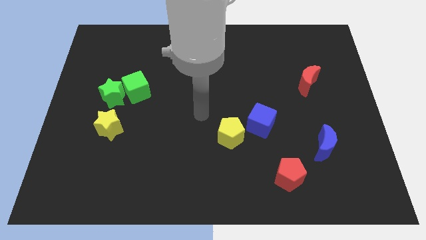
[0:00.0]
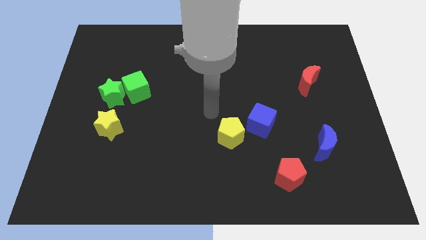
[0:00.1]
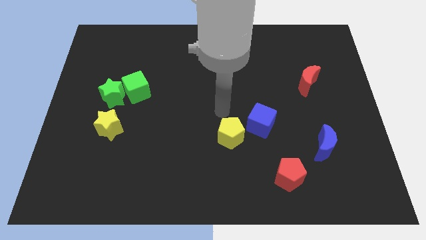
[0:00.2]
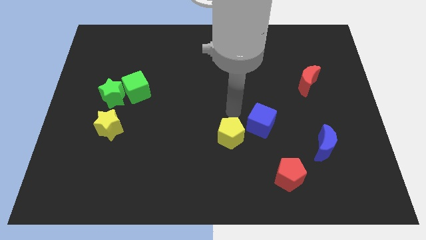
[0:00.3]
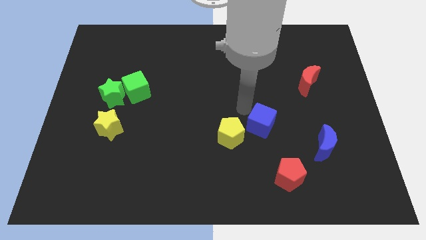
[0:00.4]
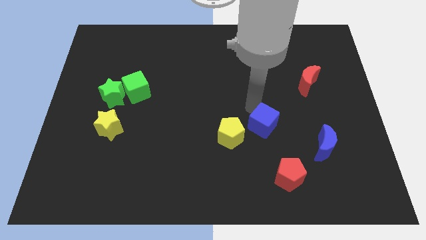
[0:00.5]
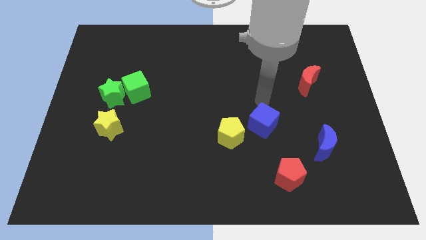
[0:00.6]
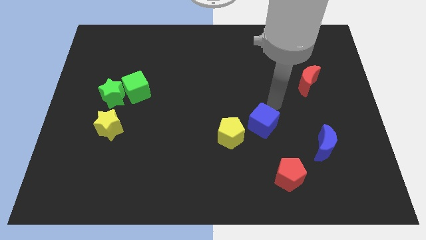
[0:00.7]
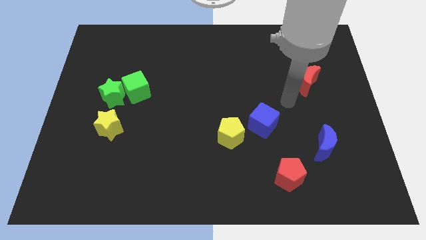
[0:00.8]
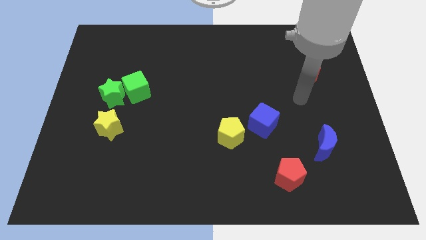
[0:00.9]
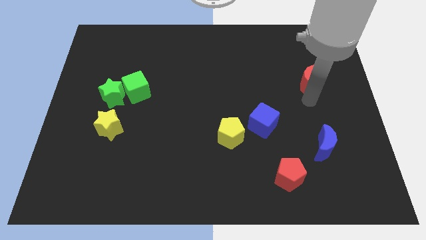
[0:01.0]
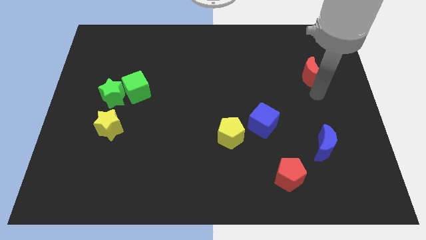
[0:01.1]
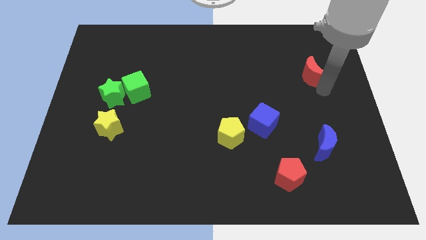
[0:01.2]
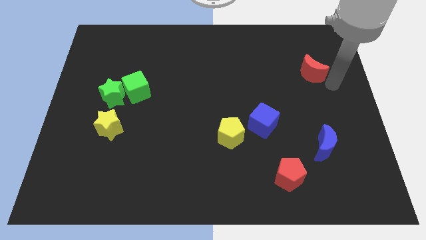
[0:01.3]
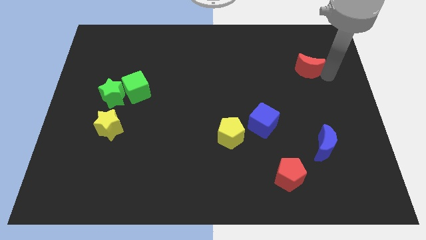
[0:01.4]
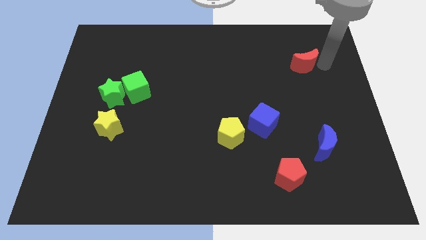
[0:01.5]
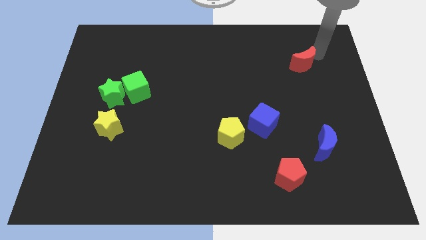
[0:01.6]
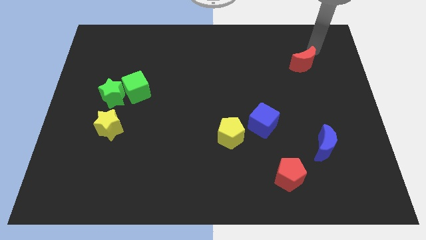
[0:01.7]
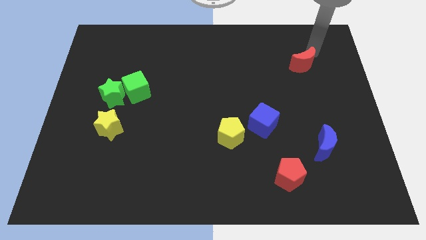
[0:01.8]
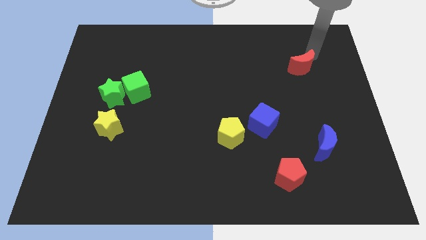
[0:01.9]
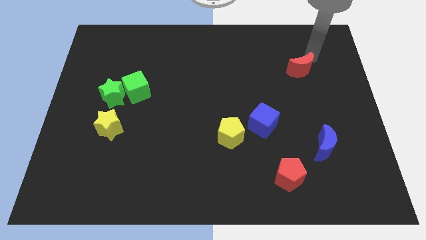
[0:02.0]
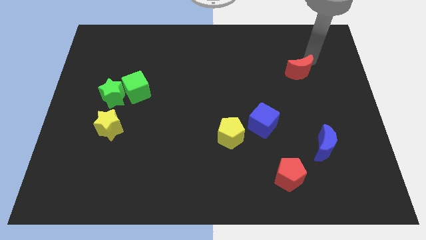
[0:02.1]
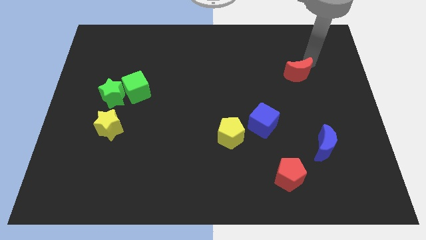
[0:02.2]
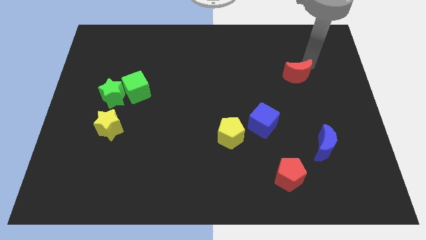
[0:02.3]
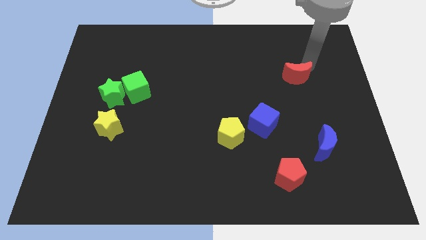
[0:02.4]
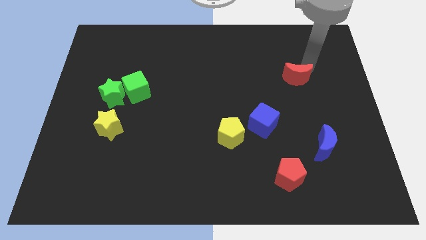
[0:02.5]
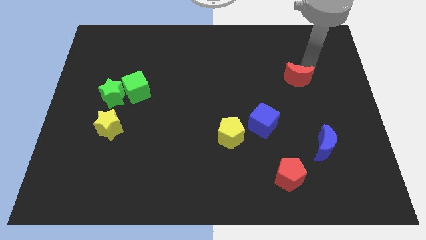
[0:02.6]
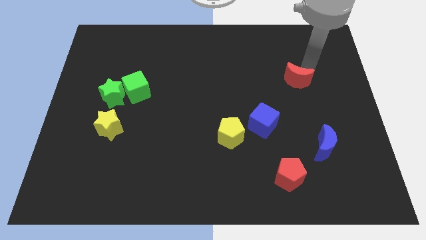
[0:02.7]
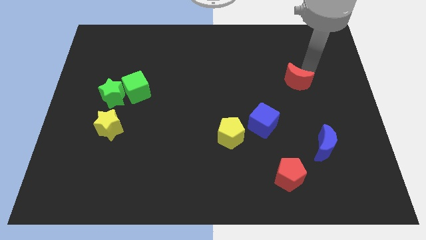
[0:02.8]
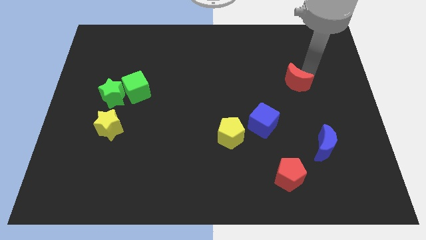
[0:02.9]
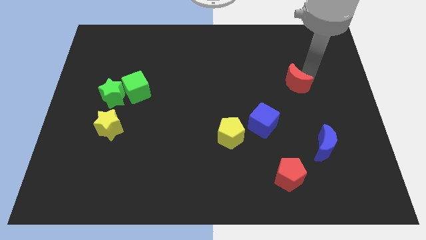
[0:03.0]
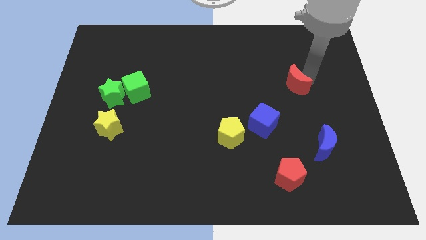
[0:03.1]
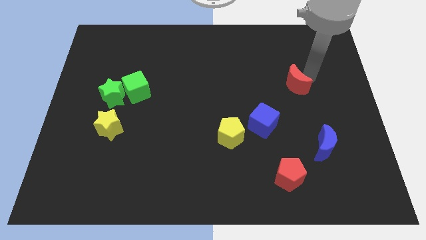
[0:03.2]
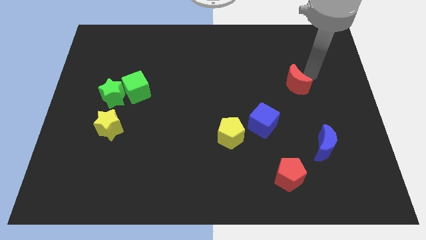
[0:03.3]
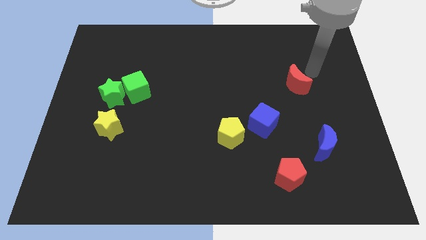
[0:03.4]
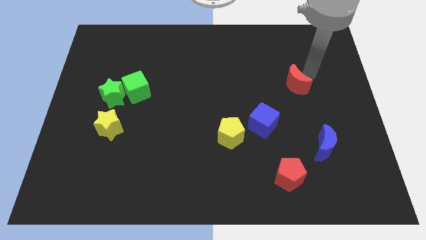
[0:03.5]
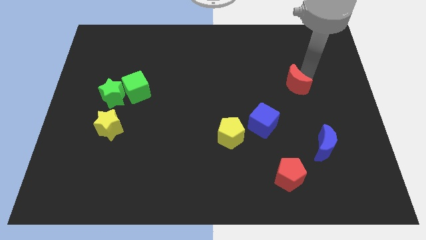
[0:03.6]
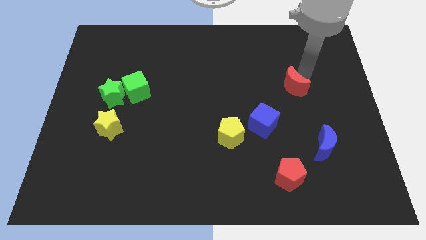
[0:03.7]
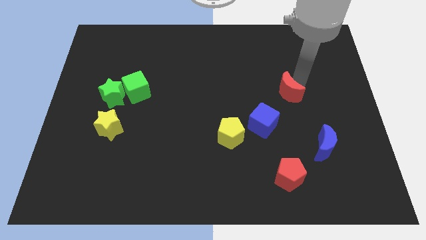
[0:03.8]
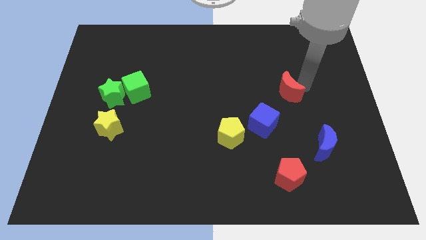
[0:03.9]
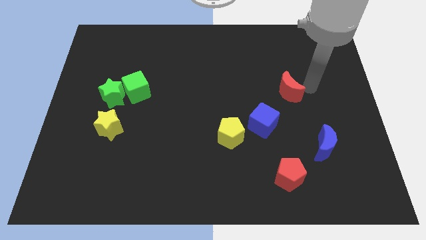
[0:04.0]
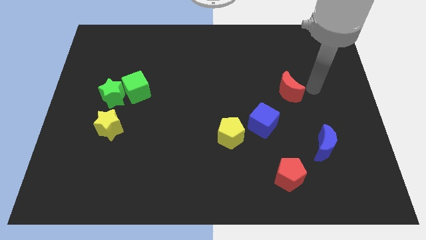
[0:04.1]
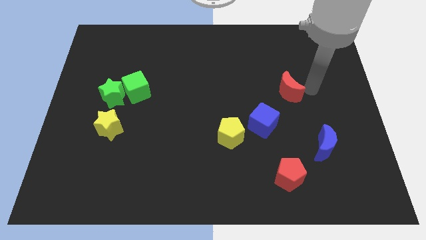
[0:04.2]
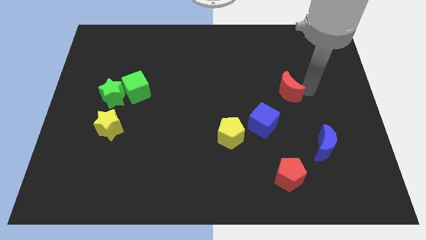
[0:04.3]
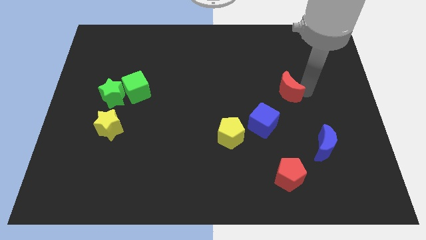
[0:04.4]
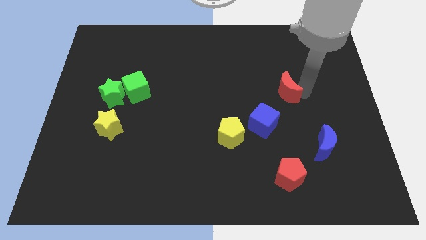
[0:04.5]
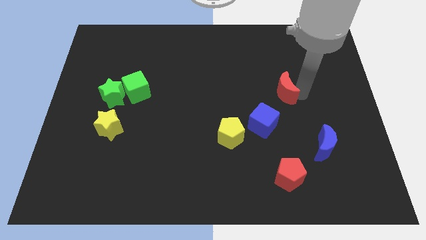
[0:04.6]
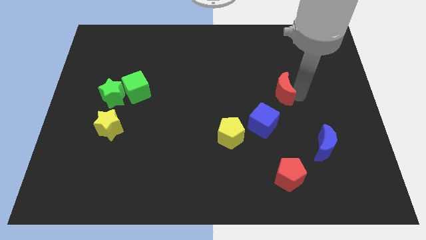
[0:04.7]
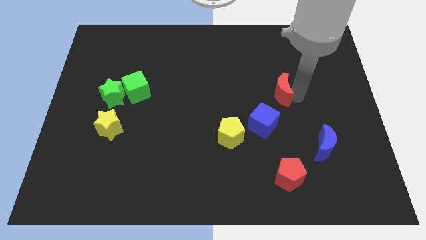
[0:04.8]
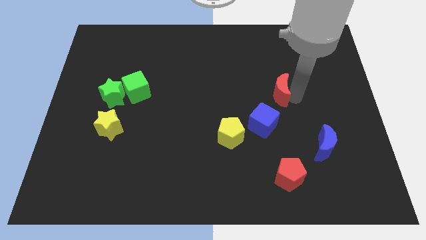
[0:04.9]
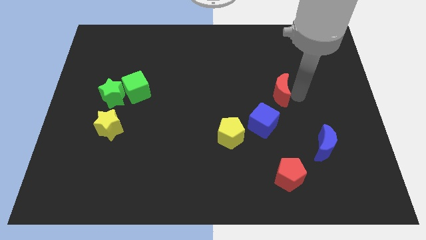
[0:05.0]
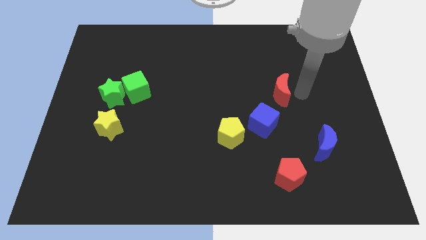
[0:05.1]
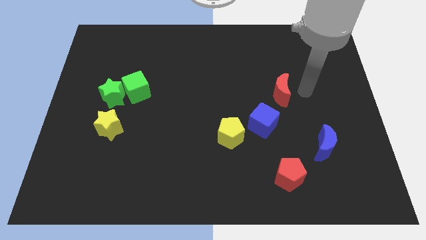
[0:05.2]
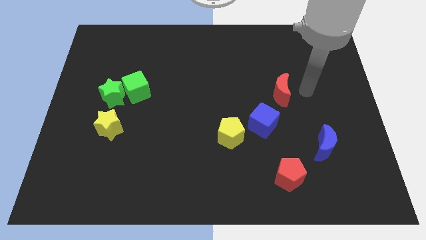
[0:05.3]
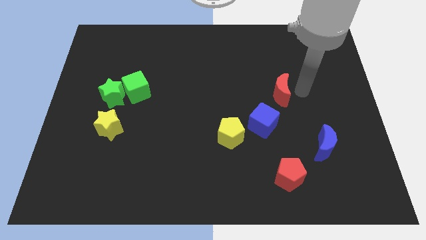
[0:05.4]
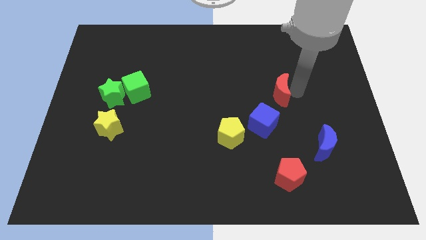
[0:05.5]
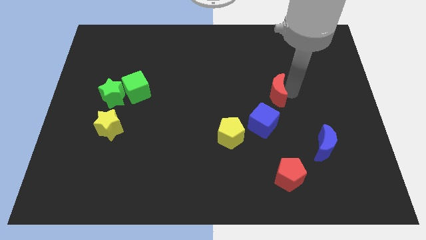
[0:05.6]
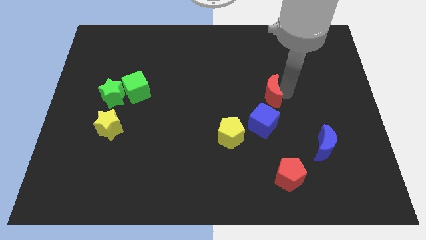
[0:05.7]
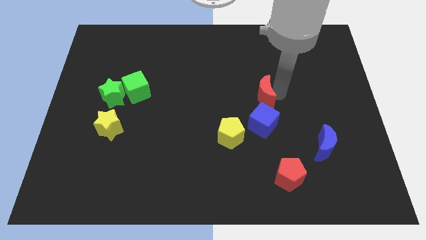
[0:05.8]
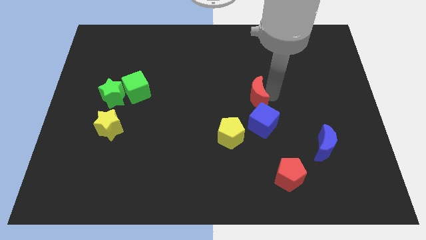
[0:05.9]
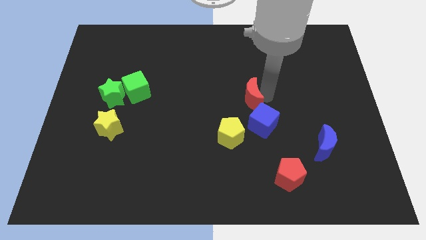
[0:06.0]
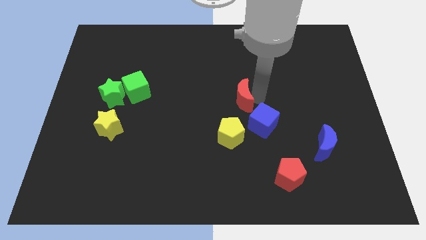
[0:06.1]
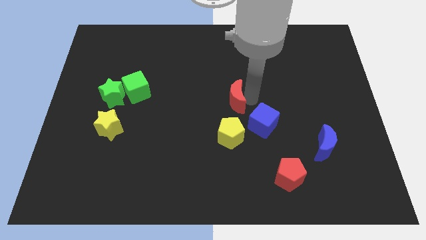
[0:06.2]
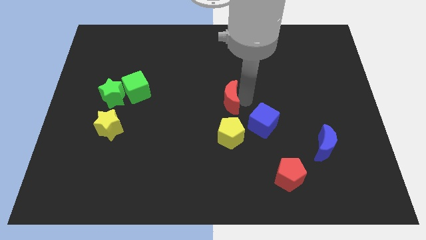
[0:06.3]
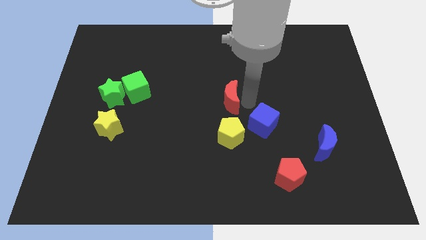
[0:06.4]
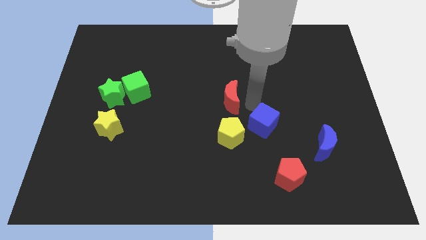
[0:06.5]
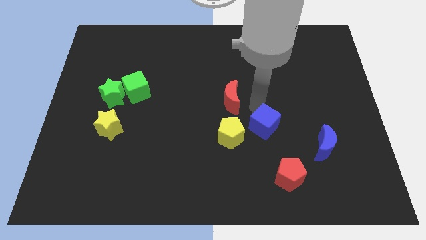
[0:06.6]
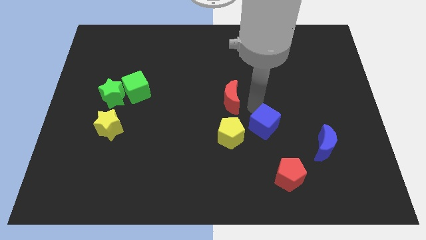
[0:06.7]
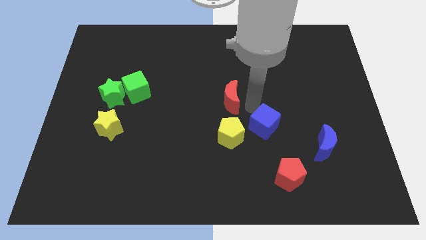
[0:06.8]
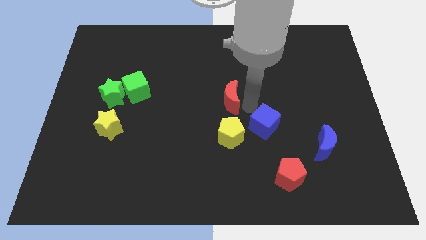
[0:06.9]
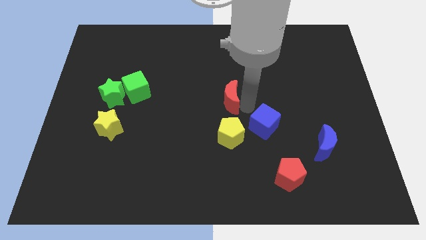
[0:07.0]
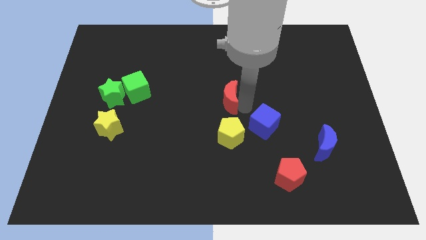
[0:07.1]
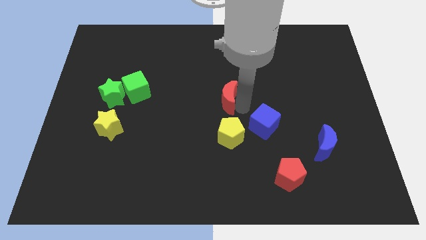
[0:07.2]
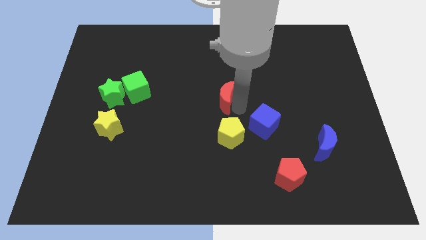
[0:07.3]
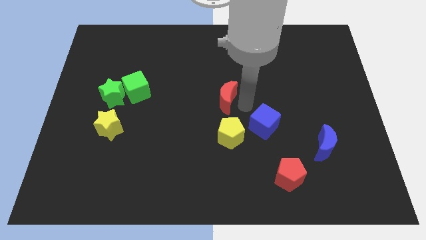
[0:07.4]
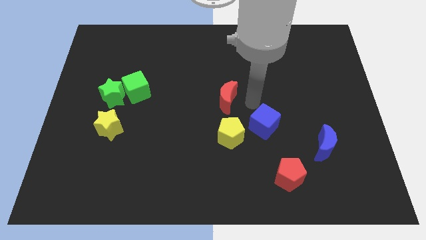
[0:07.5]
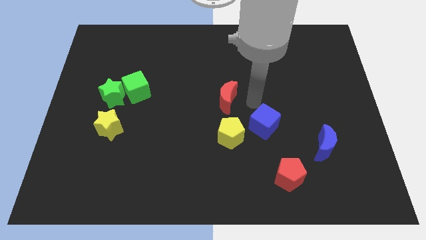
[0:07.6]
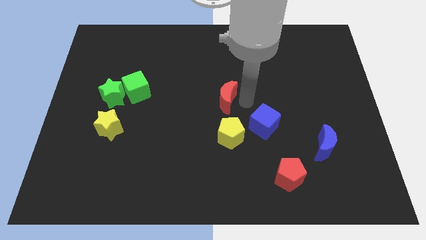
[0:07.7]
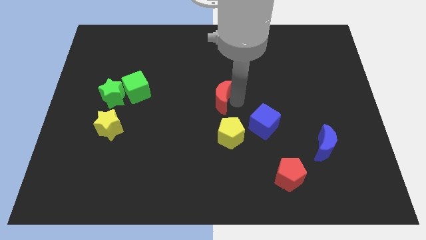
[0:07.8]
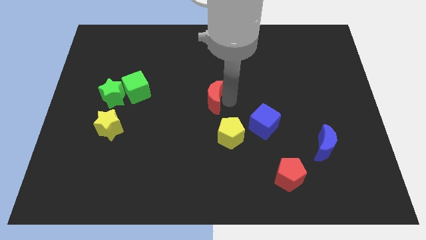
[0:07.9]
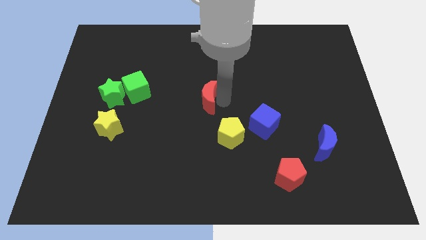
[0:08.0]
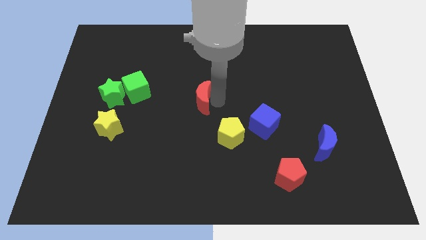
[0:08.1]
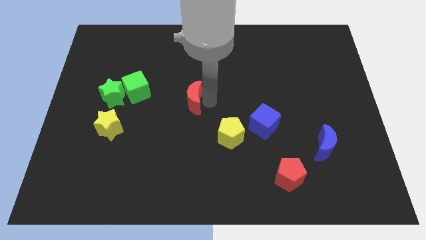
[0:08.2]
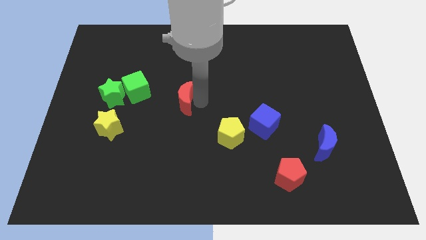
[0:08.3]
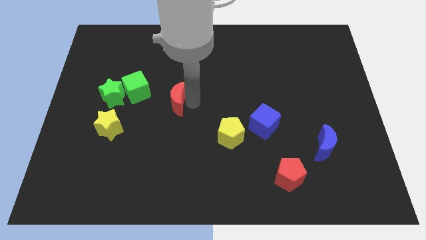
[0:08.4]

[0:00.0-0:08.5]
put the red moon to the right side of the green star
